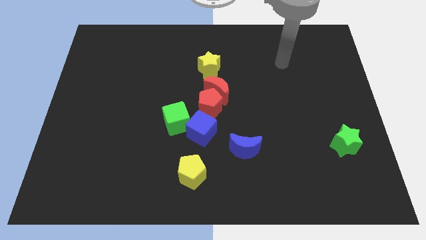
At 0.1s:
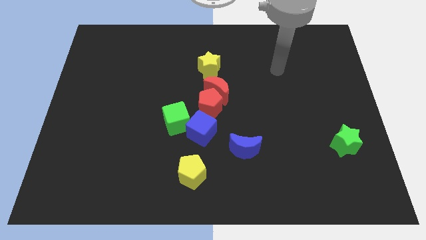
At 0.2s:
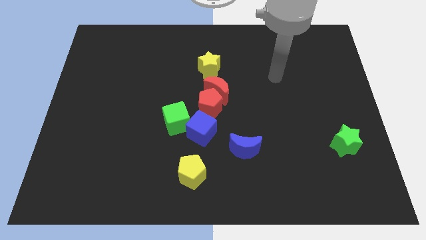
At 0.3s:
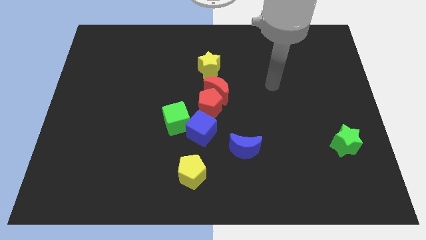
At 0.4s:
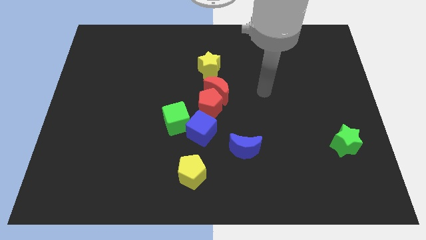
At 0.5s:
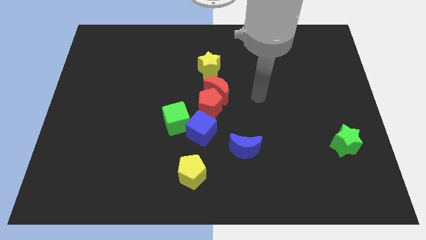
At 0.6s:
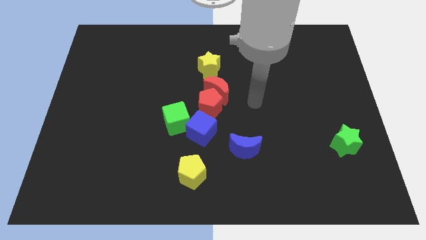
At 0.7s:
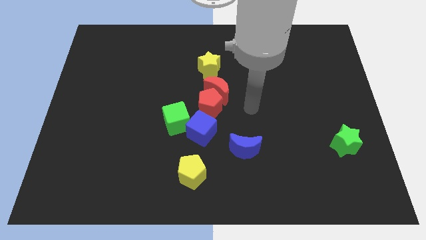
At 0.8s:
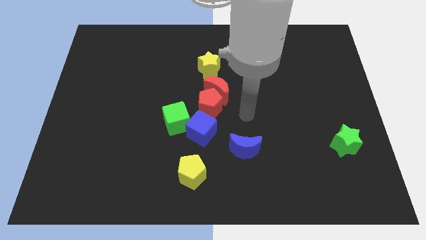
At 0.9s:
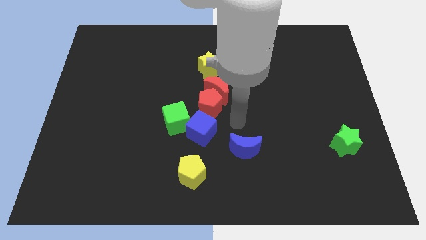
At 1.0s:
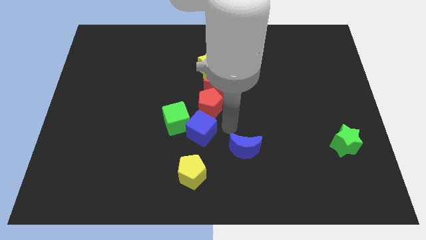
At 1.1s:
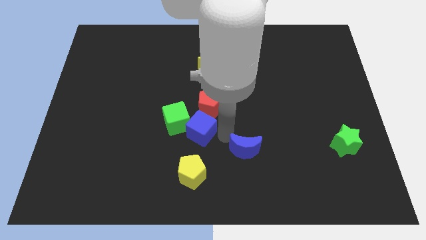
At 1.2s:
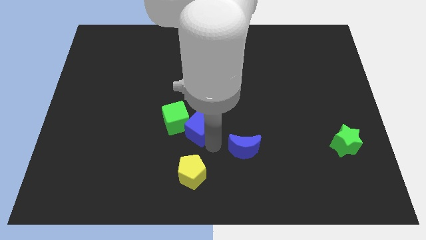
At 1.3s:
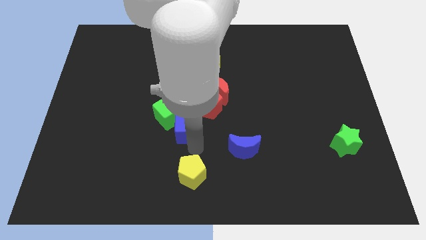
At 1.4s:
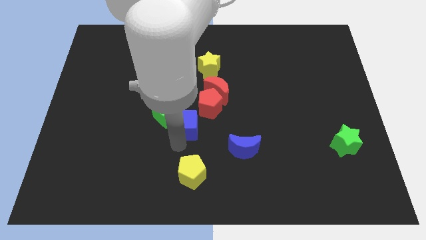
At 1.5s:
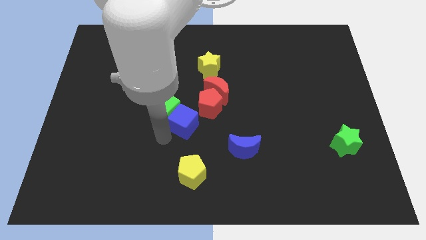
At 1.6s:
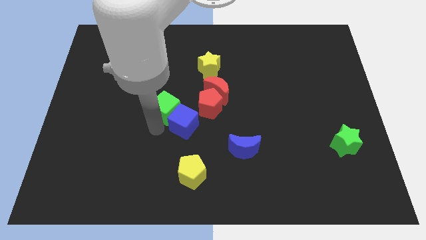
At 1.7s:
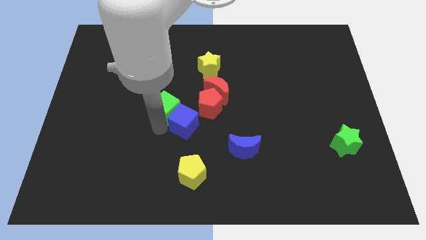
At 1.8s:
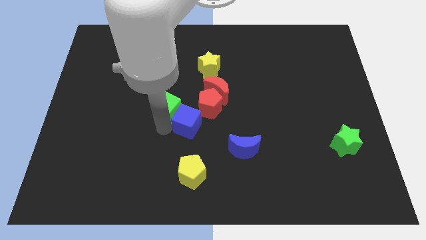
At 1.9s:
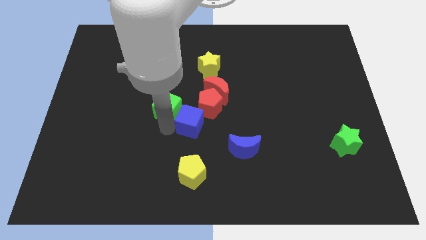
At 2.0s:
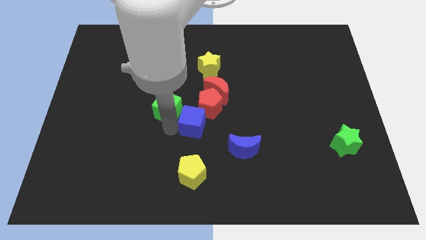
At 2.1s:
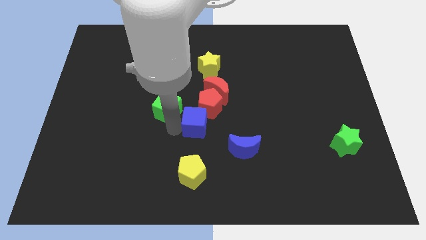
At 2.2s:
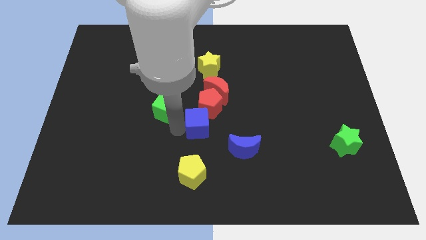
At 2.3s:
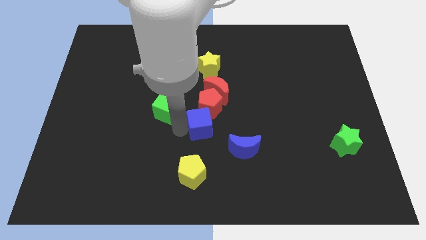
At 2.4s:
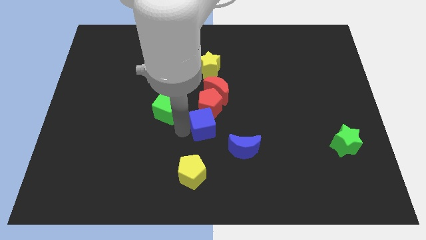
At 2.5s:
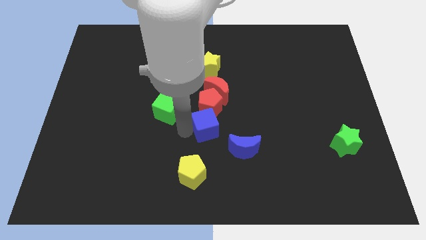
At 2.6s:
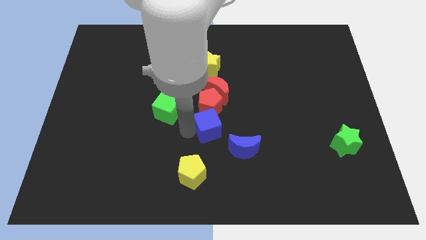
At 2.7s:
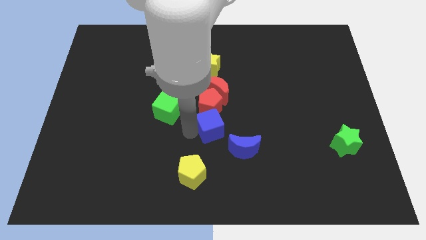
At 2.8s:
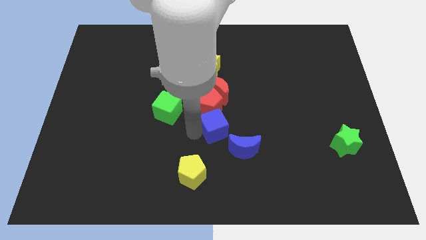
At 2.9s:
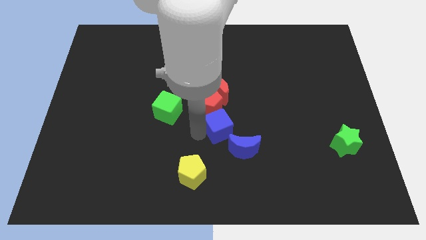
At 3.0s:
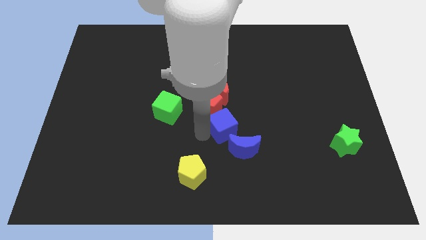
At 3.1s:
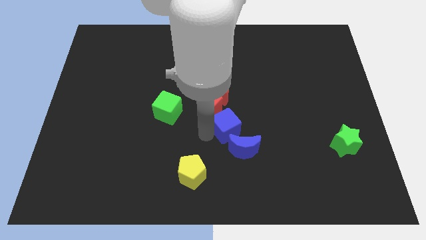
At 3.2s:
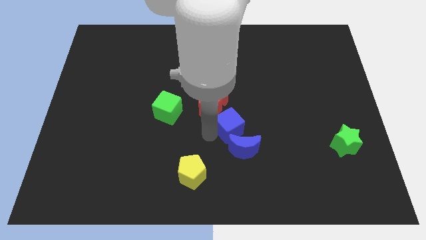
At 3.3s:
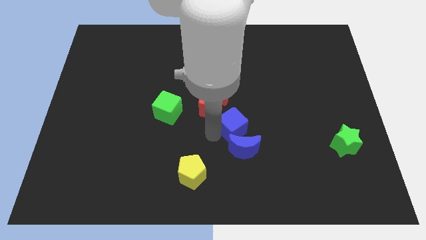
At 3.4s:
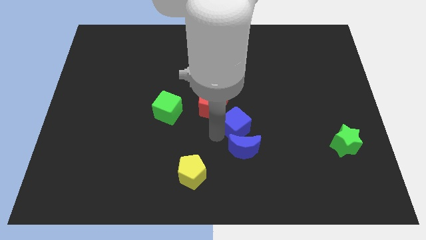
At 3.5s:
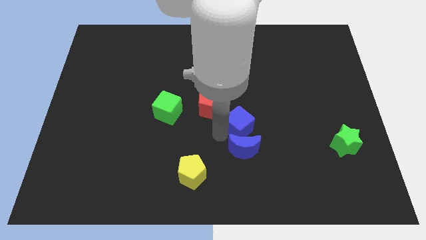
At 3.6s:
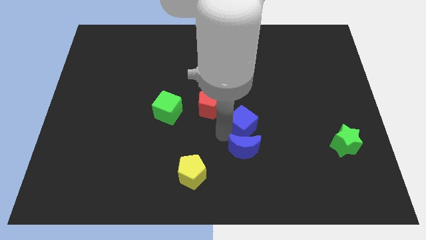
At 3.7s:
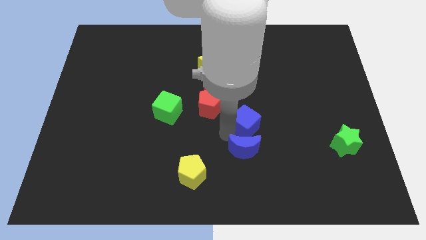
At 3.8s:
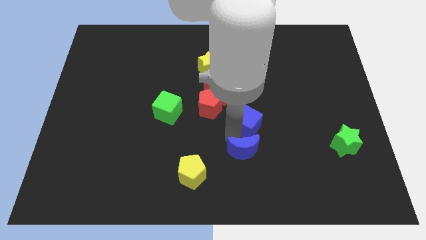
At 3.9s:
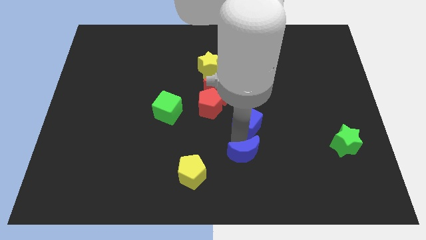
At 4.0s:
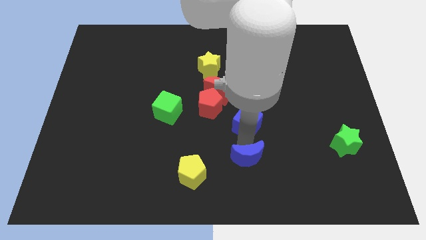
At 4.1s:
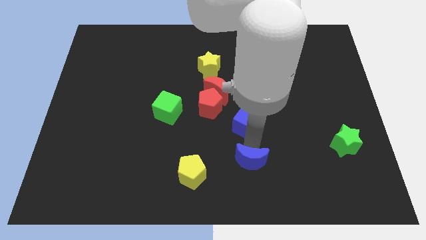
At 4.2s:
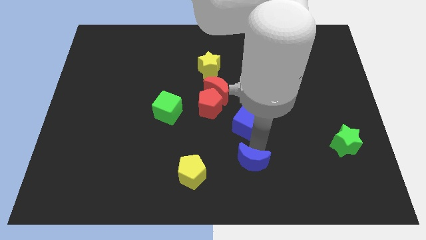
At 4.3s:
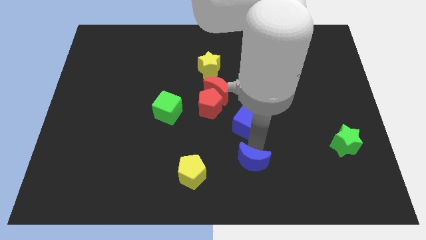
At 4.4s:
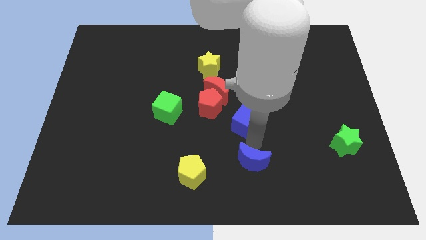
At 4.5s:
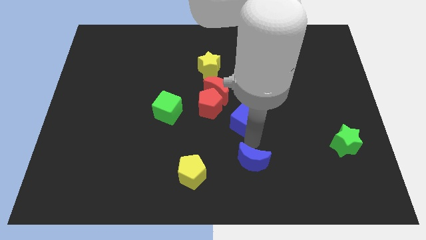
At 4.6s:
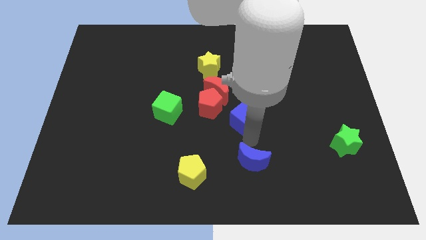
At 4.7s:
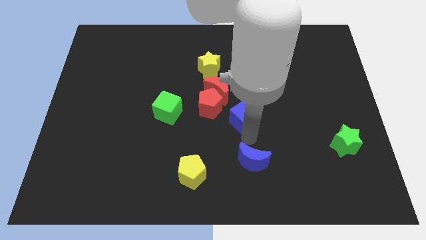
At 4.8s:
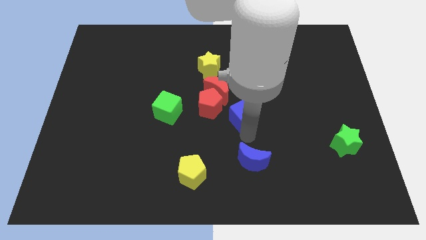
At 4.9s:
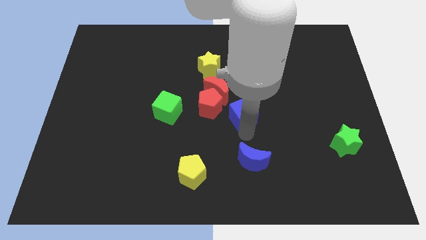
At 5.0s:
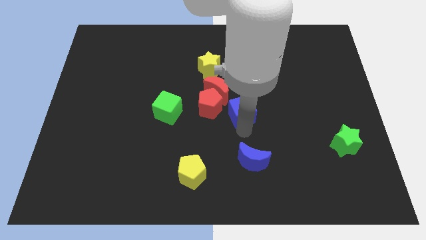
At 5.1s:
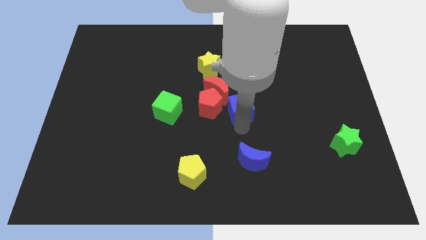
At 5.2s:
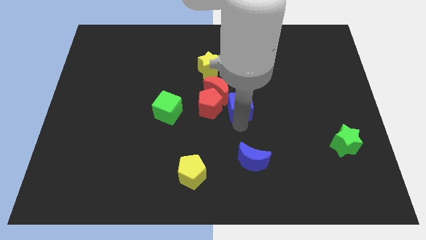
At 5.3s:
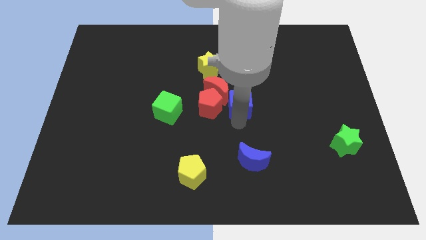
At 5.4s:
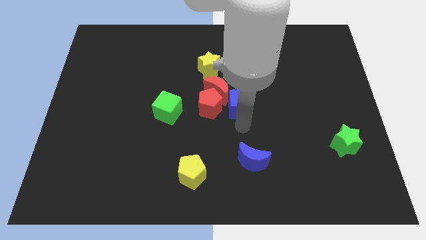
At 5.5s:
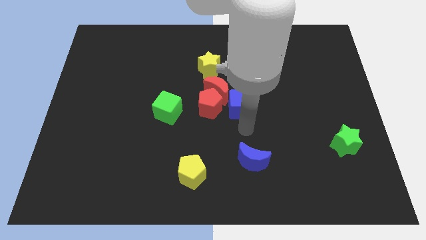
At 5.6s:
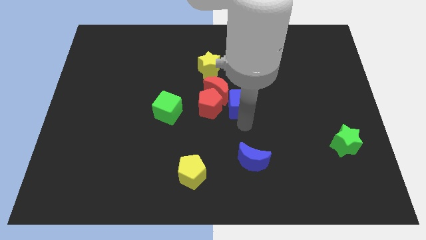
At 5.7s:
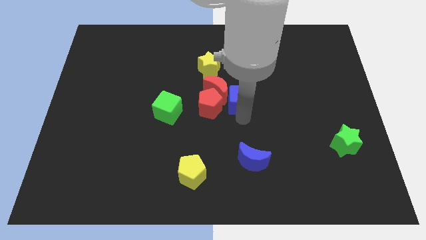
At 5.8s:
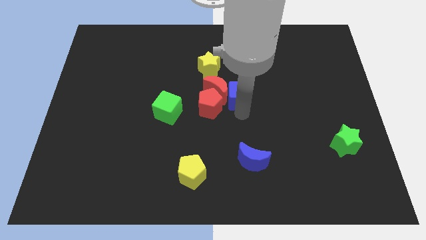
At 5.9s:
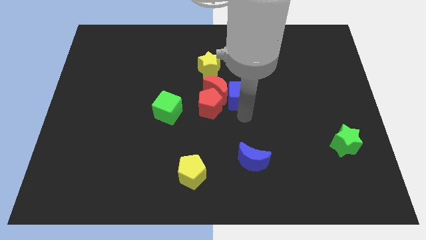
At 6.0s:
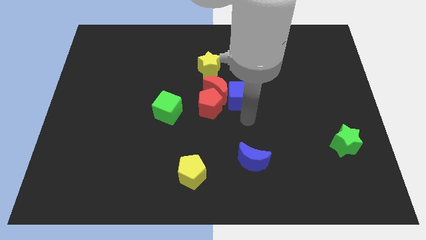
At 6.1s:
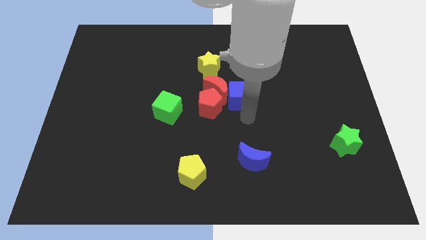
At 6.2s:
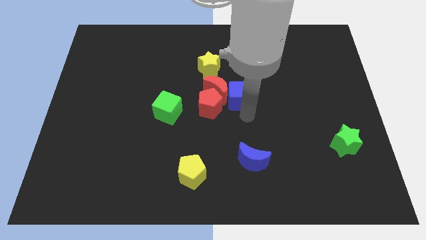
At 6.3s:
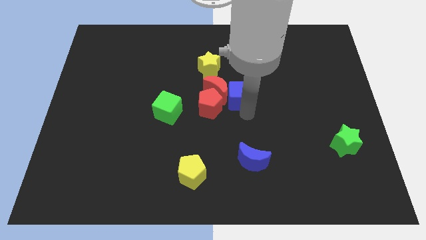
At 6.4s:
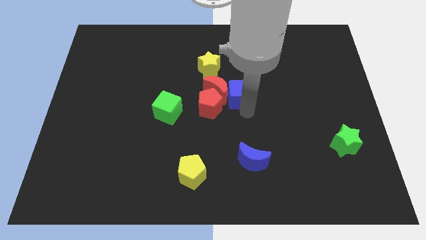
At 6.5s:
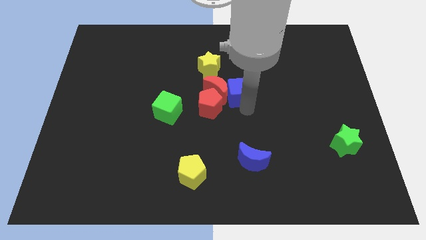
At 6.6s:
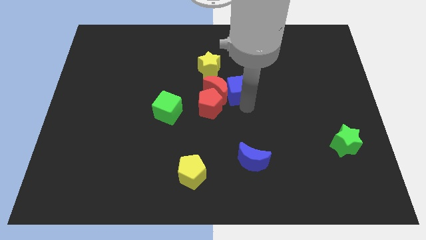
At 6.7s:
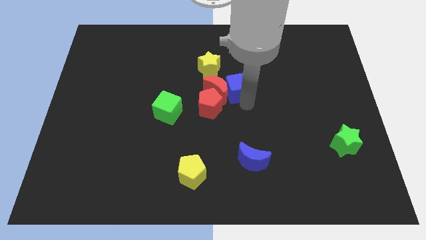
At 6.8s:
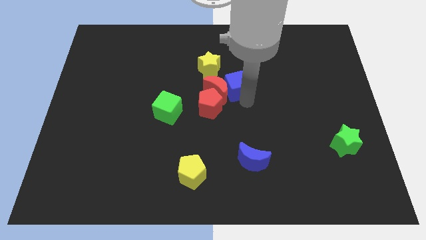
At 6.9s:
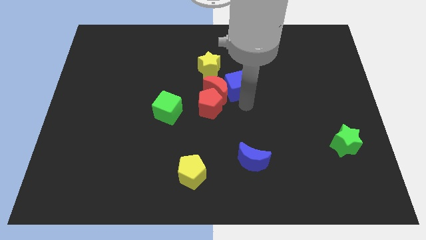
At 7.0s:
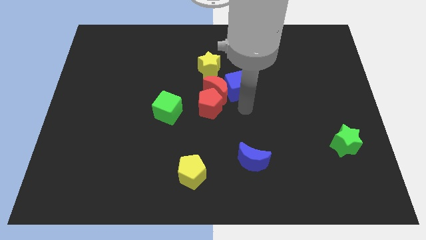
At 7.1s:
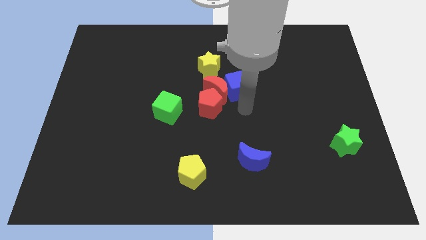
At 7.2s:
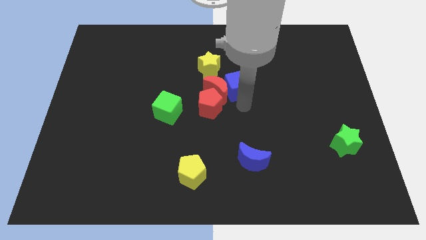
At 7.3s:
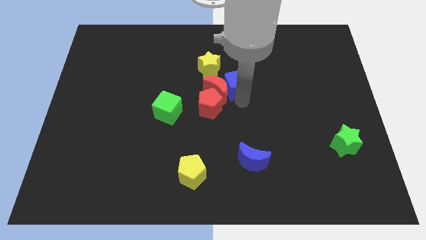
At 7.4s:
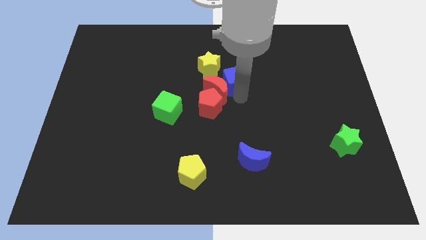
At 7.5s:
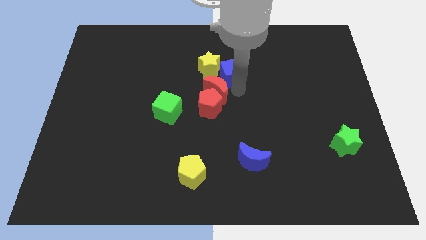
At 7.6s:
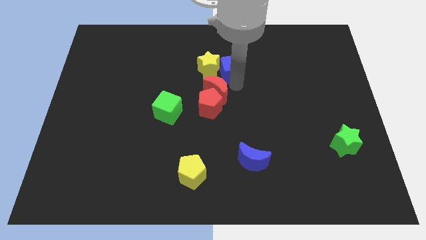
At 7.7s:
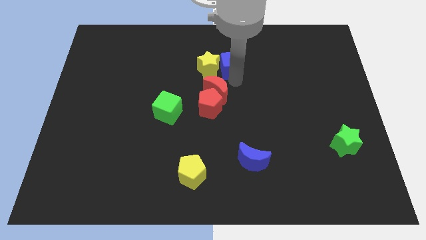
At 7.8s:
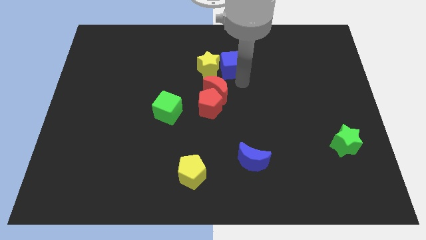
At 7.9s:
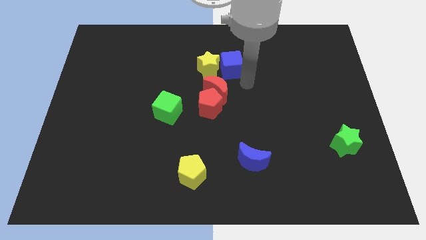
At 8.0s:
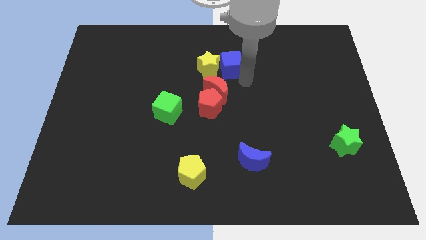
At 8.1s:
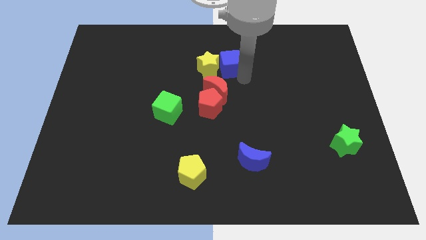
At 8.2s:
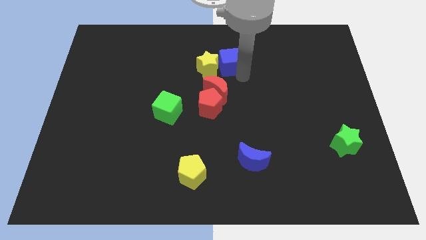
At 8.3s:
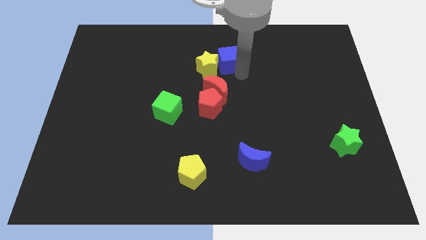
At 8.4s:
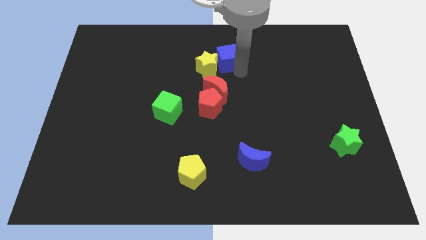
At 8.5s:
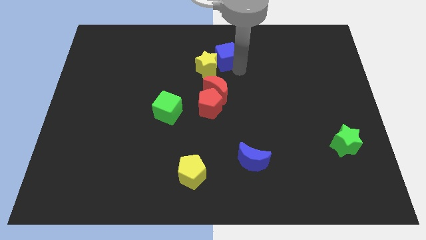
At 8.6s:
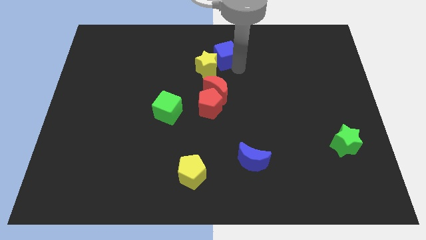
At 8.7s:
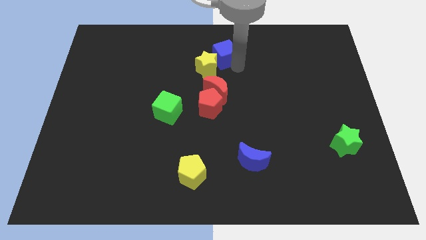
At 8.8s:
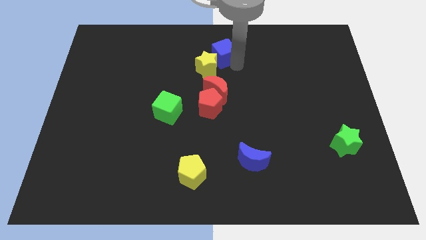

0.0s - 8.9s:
push the blue cube to the top
